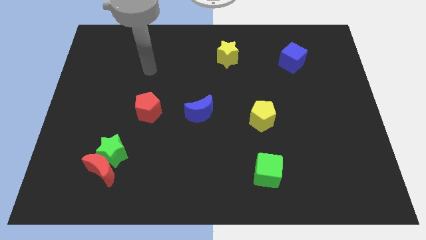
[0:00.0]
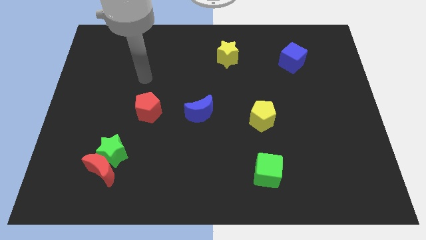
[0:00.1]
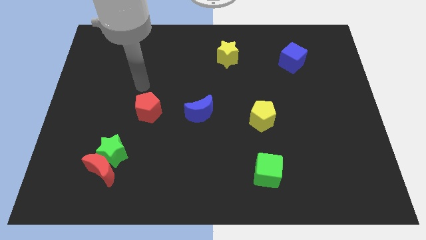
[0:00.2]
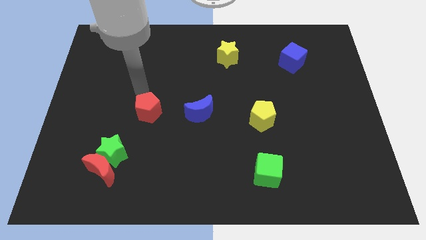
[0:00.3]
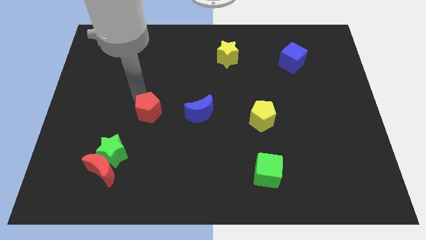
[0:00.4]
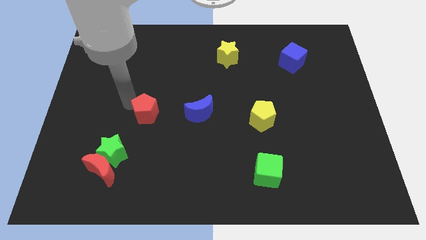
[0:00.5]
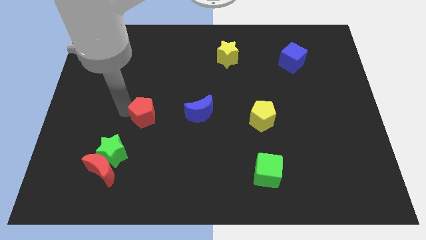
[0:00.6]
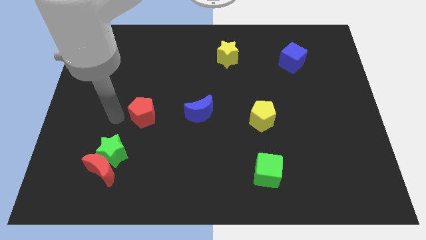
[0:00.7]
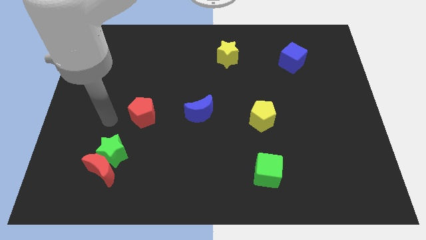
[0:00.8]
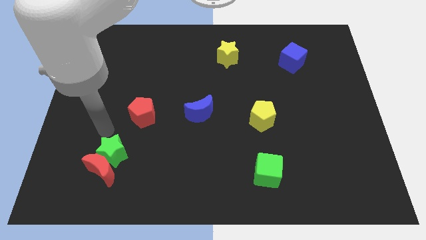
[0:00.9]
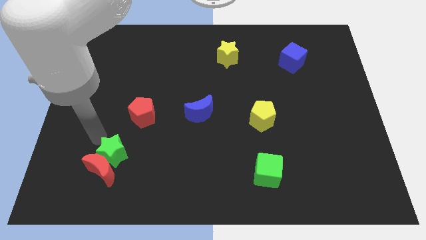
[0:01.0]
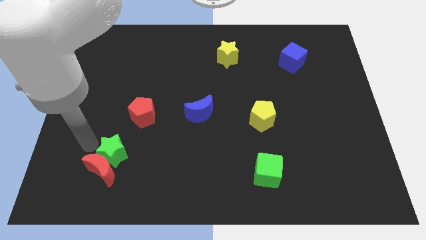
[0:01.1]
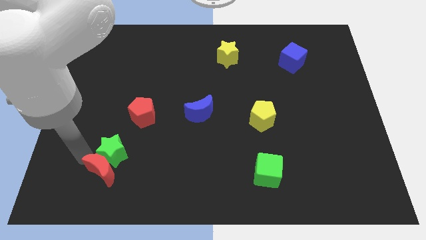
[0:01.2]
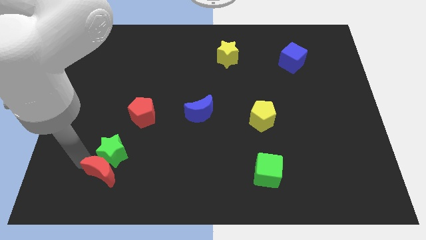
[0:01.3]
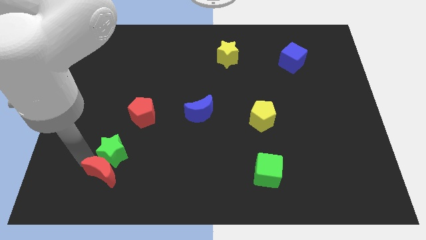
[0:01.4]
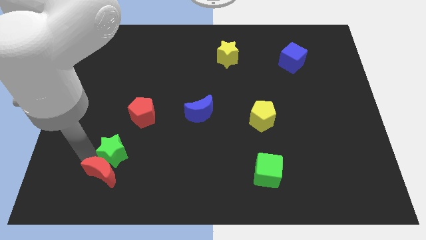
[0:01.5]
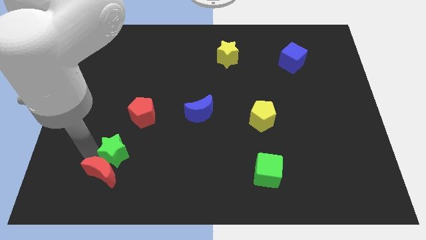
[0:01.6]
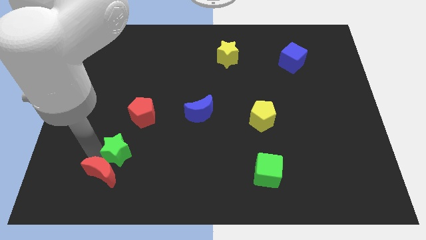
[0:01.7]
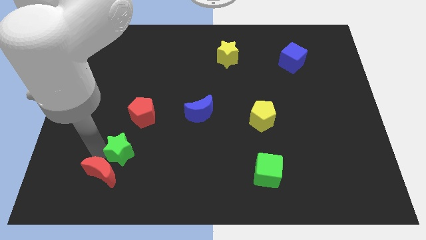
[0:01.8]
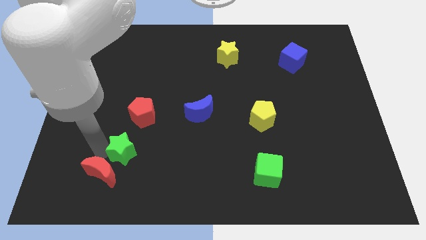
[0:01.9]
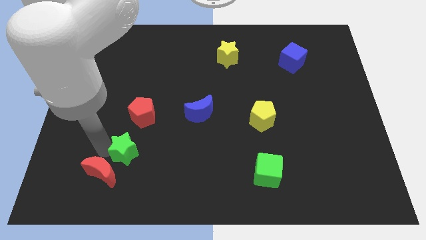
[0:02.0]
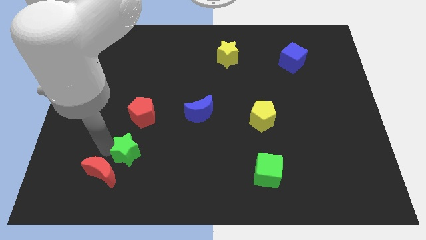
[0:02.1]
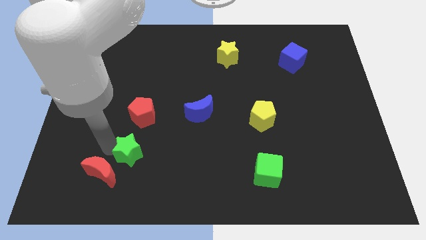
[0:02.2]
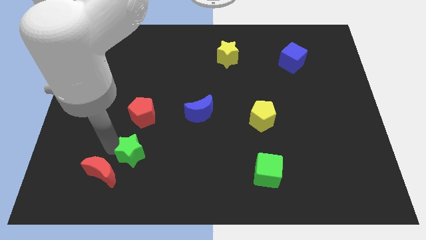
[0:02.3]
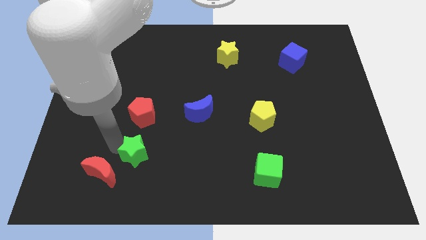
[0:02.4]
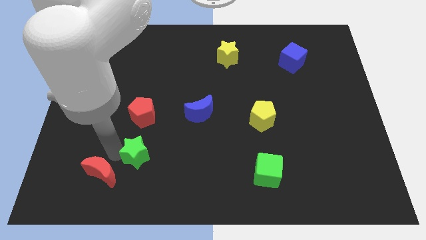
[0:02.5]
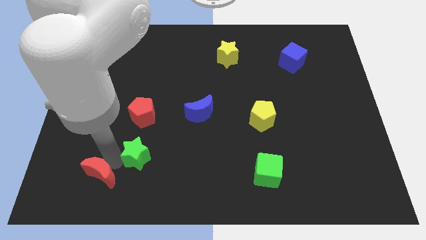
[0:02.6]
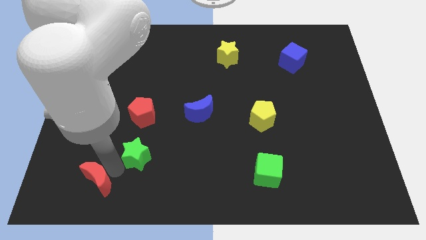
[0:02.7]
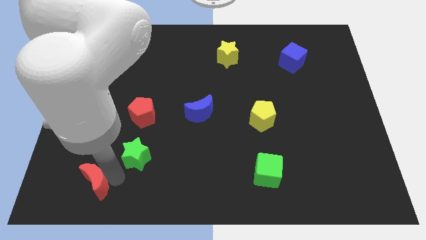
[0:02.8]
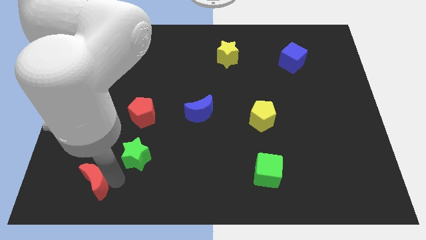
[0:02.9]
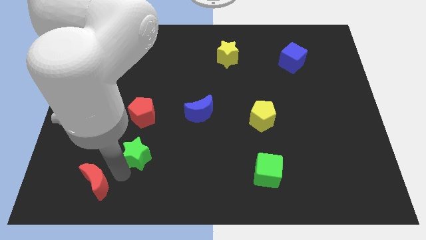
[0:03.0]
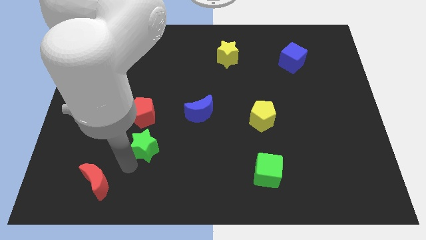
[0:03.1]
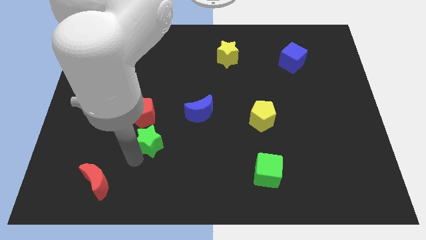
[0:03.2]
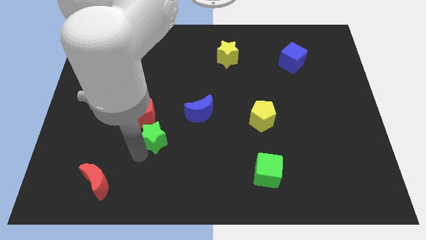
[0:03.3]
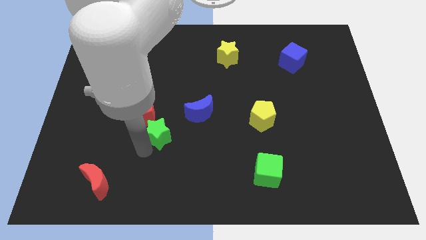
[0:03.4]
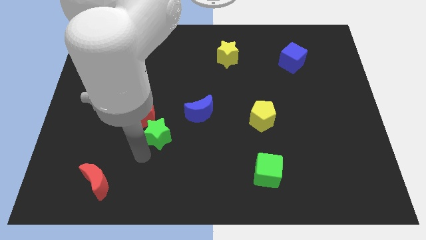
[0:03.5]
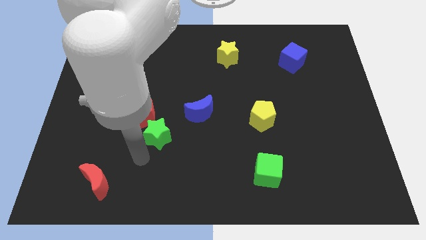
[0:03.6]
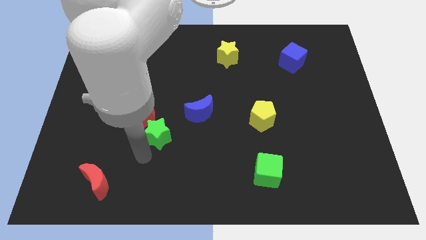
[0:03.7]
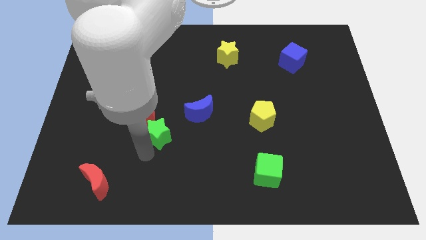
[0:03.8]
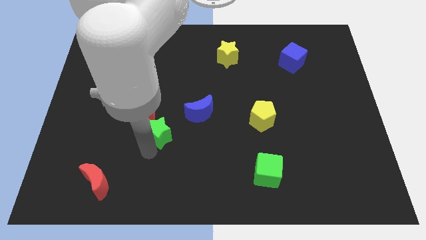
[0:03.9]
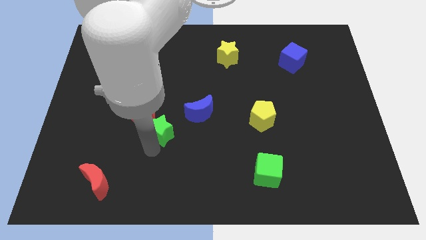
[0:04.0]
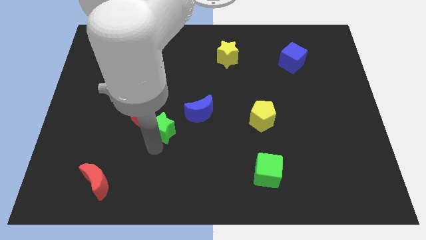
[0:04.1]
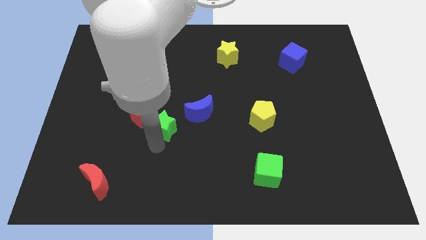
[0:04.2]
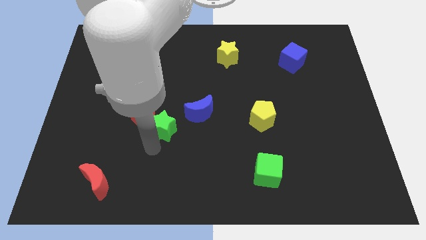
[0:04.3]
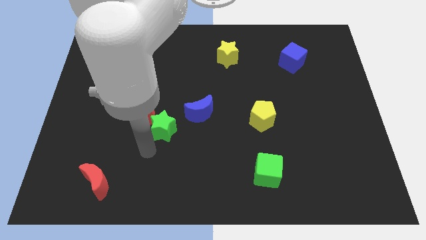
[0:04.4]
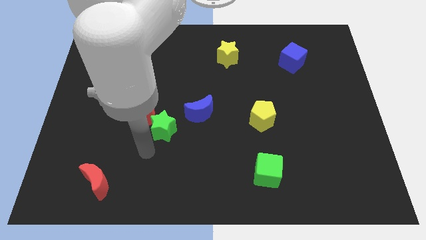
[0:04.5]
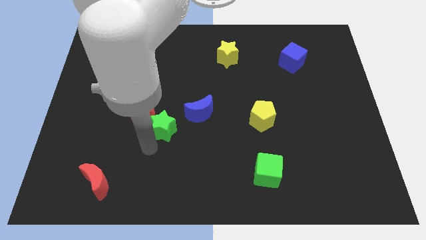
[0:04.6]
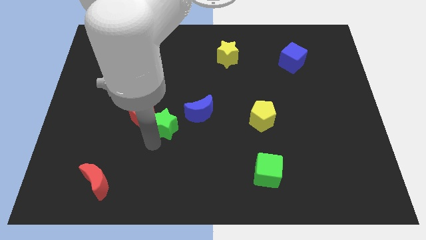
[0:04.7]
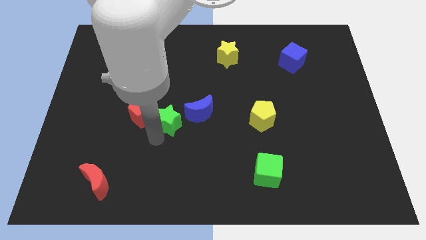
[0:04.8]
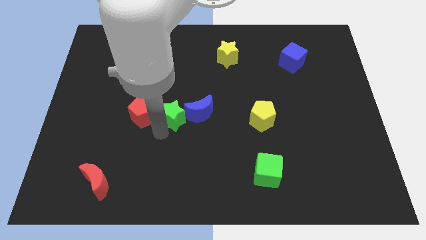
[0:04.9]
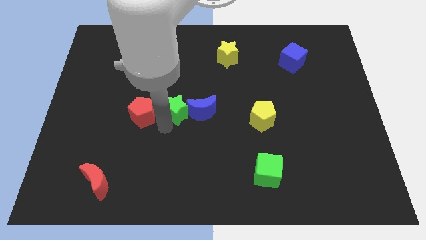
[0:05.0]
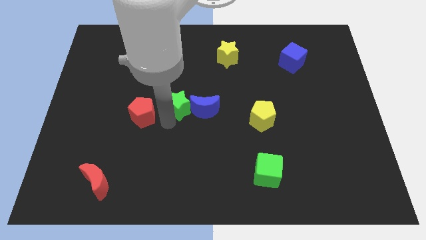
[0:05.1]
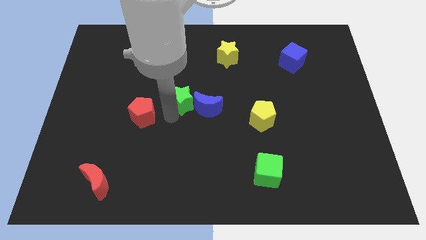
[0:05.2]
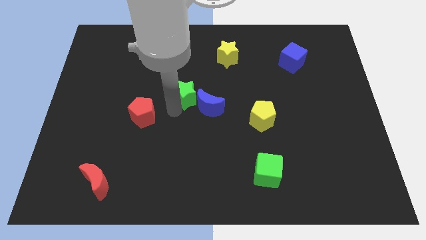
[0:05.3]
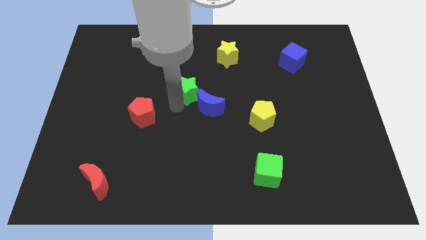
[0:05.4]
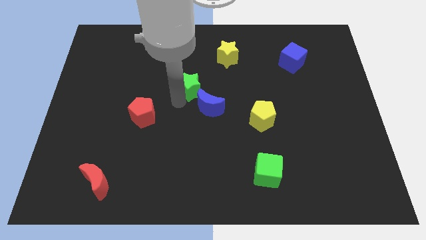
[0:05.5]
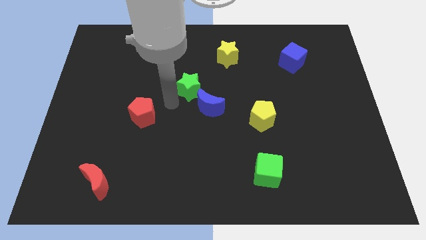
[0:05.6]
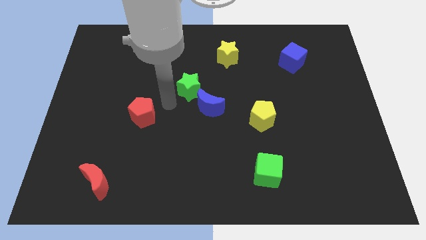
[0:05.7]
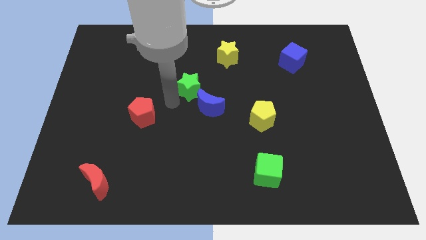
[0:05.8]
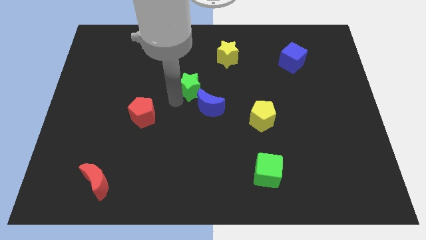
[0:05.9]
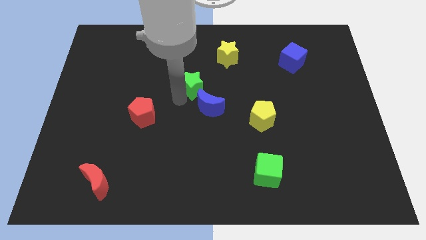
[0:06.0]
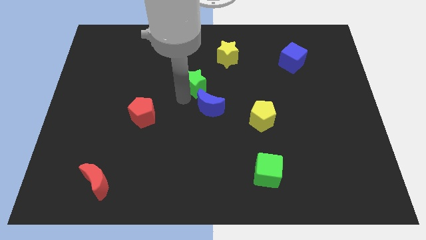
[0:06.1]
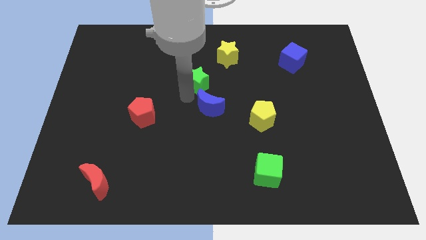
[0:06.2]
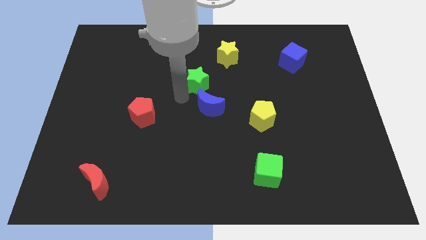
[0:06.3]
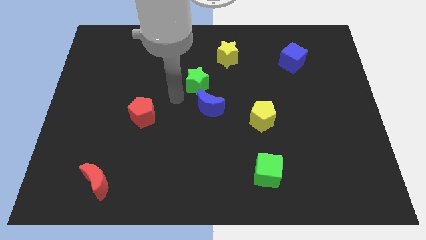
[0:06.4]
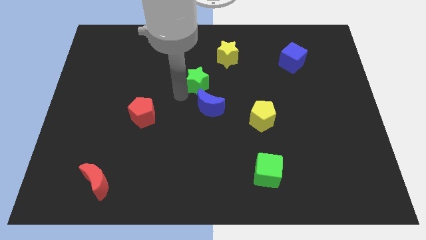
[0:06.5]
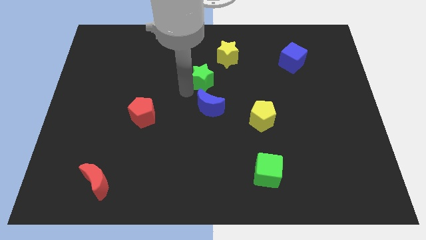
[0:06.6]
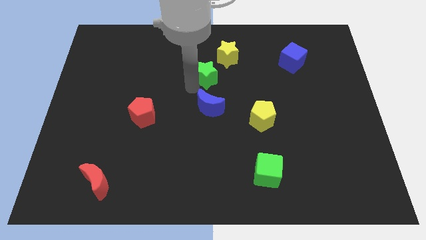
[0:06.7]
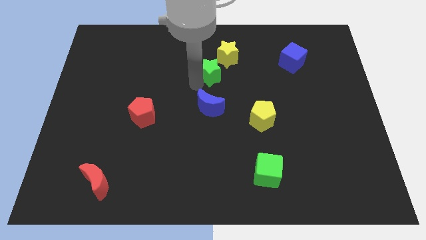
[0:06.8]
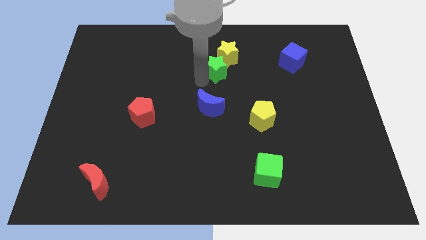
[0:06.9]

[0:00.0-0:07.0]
move the green star next to the yellow star
